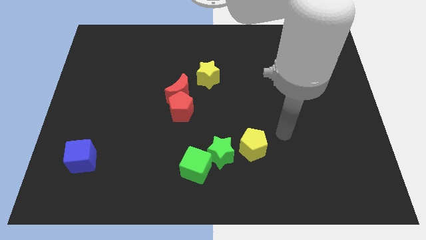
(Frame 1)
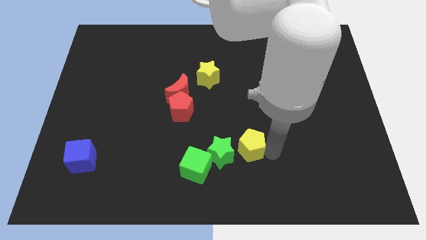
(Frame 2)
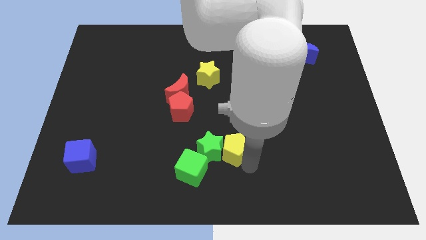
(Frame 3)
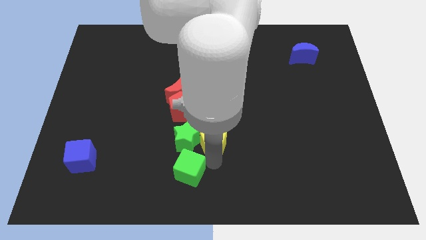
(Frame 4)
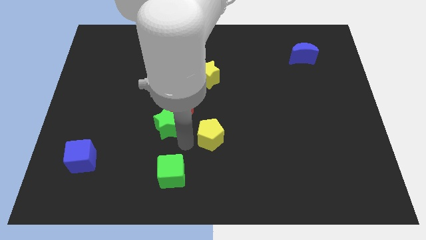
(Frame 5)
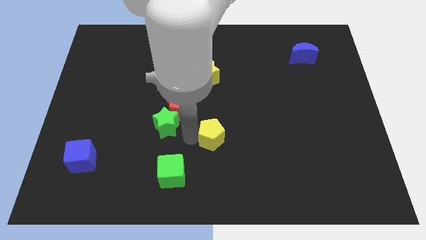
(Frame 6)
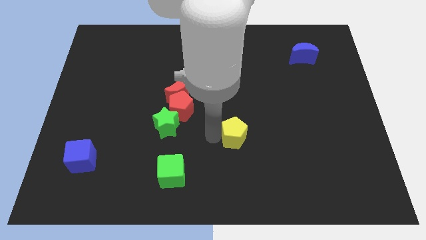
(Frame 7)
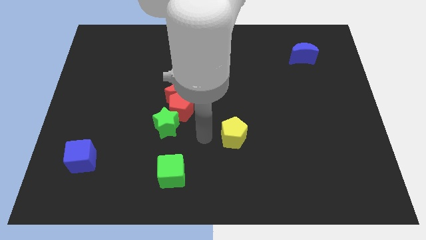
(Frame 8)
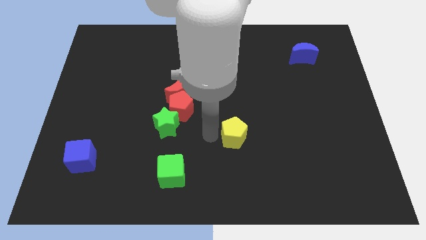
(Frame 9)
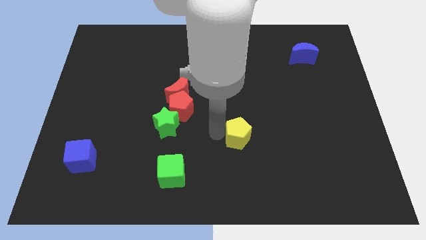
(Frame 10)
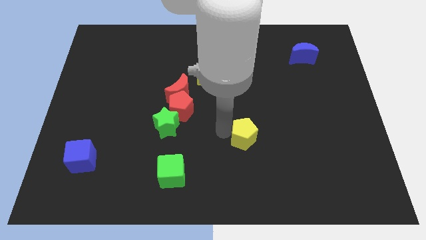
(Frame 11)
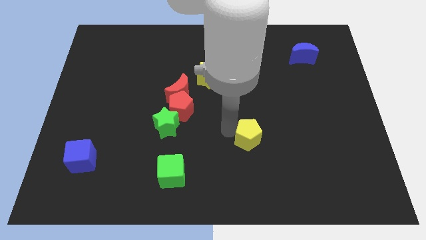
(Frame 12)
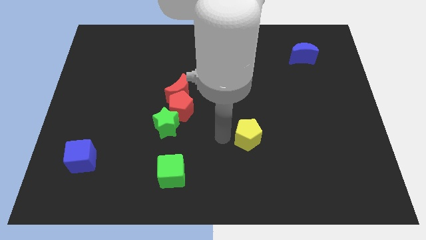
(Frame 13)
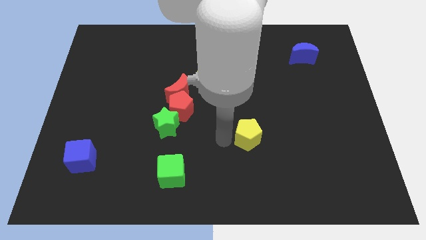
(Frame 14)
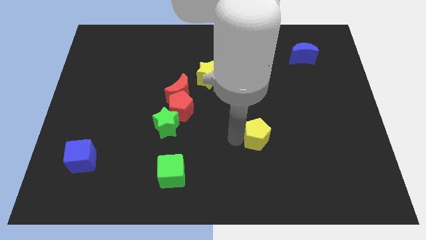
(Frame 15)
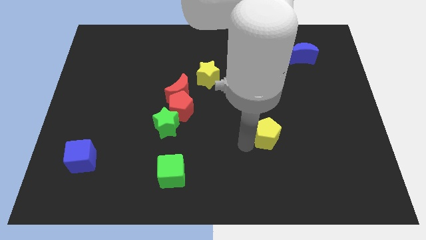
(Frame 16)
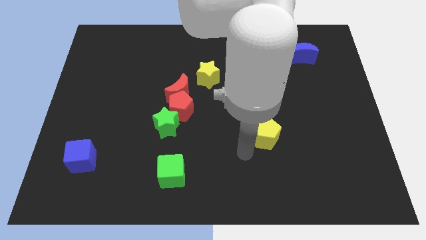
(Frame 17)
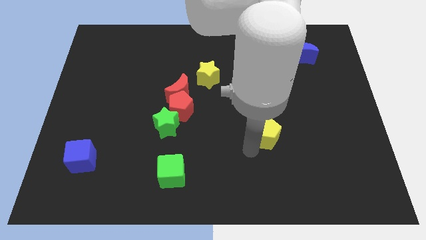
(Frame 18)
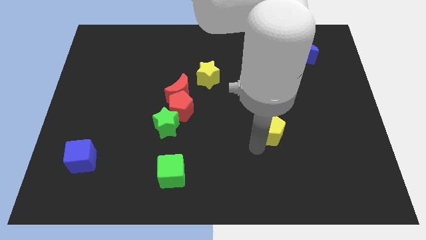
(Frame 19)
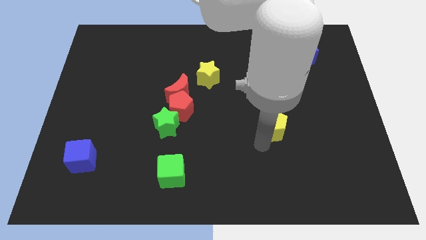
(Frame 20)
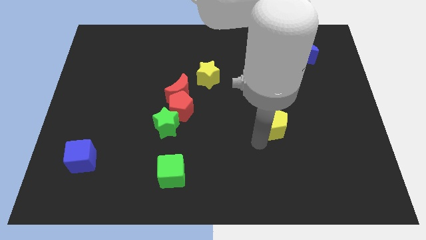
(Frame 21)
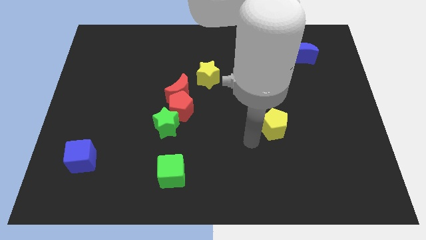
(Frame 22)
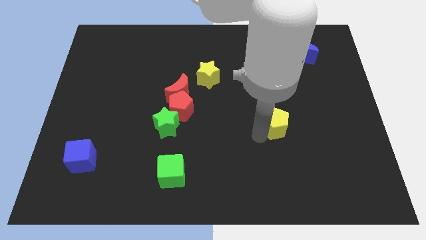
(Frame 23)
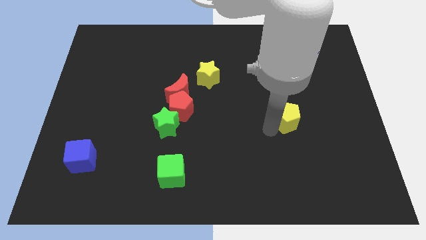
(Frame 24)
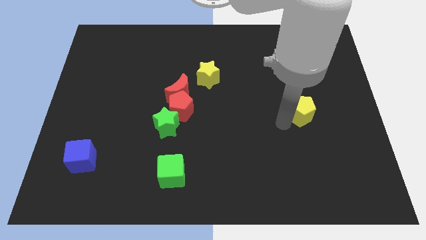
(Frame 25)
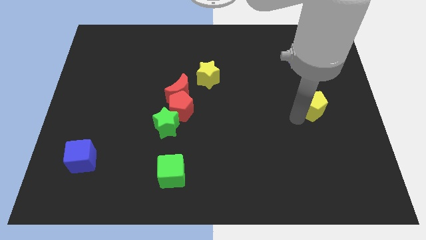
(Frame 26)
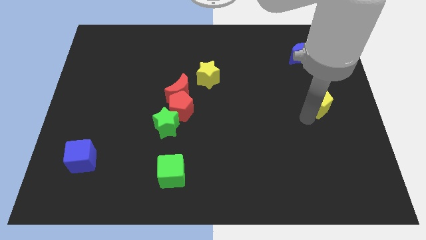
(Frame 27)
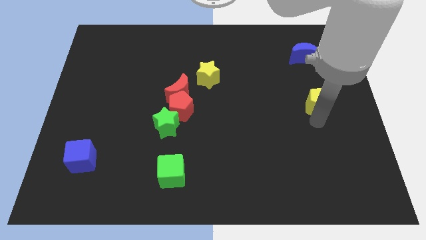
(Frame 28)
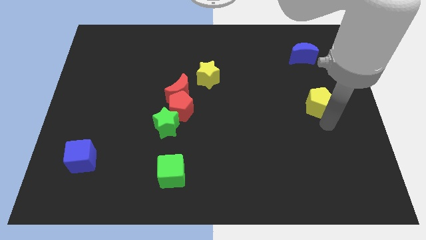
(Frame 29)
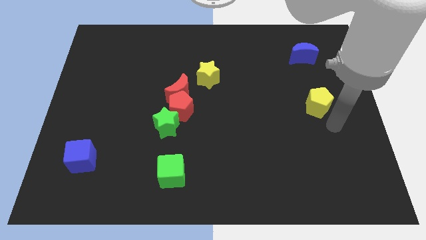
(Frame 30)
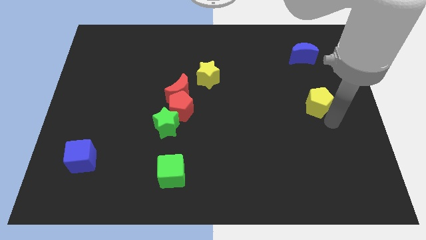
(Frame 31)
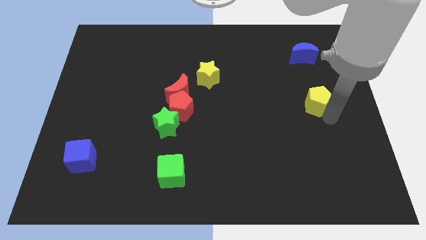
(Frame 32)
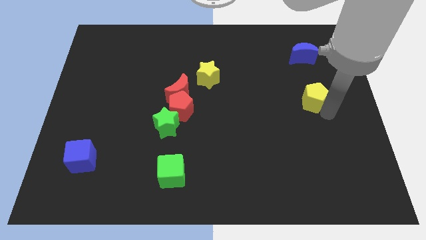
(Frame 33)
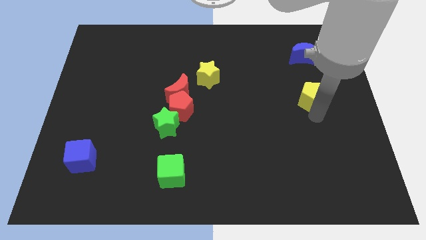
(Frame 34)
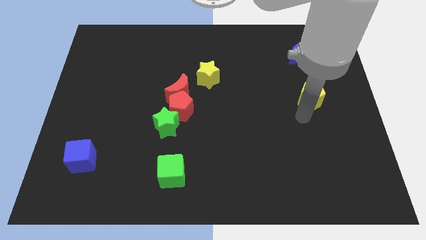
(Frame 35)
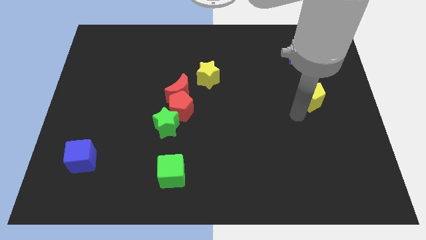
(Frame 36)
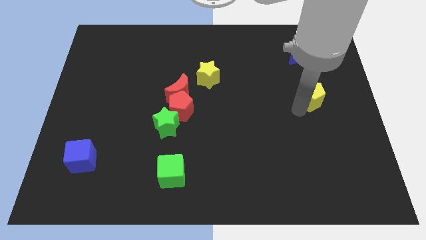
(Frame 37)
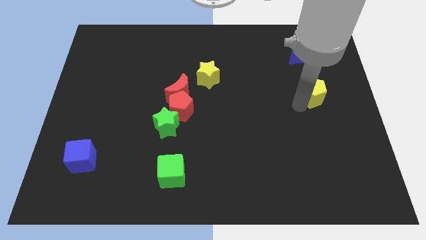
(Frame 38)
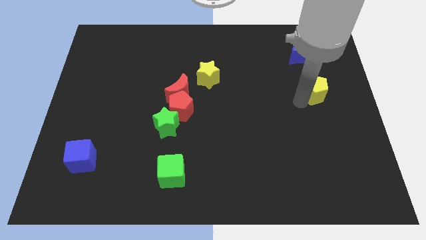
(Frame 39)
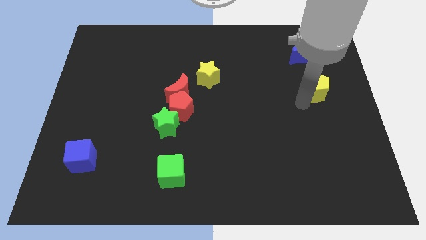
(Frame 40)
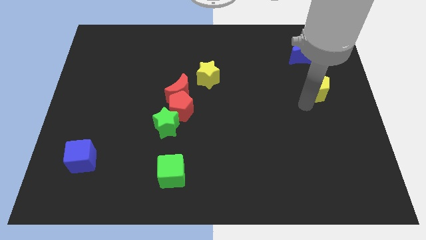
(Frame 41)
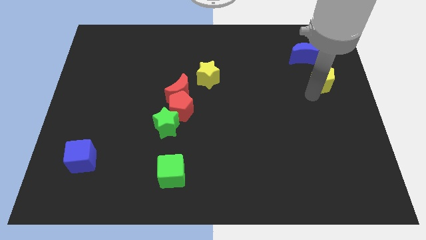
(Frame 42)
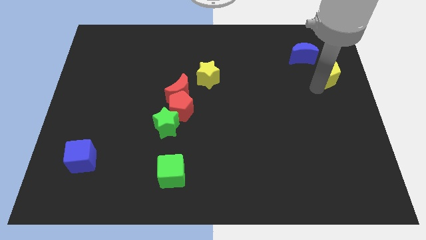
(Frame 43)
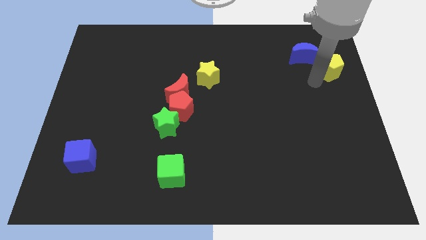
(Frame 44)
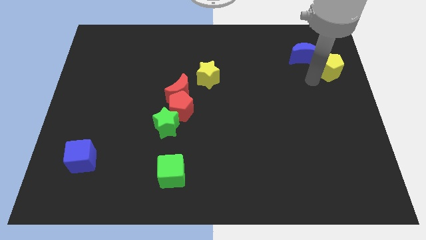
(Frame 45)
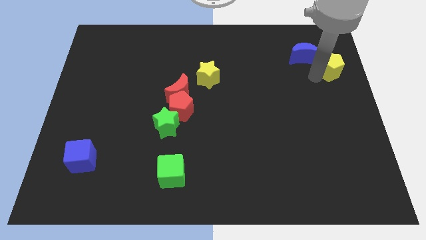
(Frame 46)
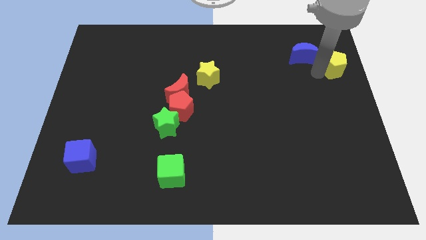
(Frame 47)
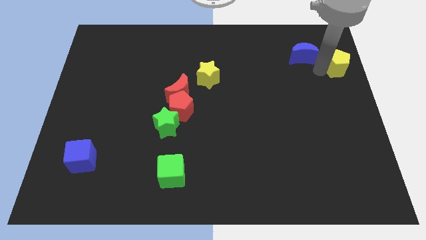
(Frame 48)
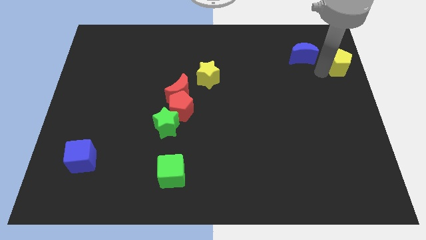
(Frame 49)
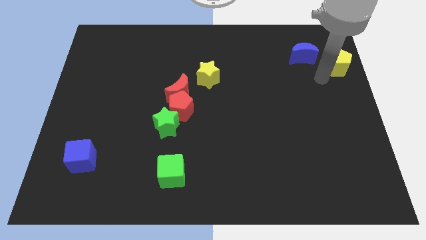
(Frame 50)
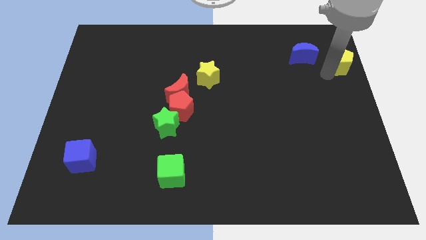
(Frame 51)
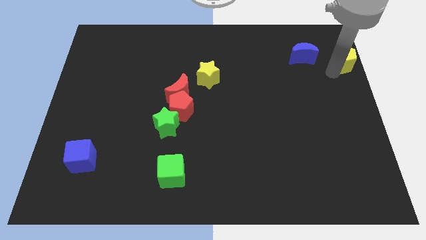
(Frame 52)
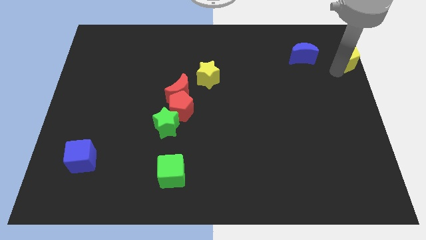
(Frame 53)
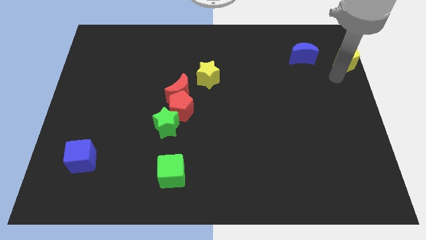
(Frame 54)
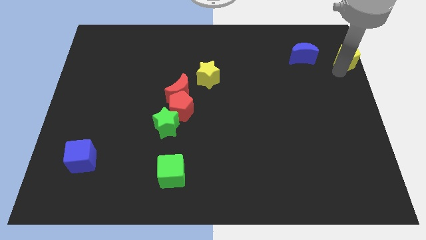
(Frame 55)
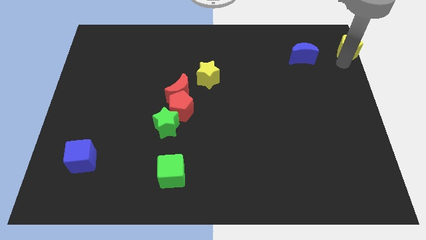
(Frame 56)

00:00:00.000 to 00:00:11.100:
slide the yellow pentagon to the top right
